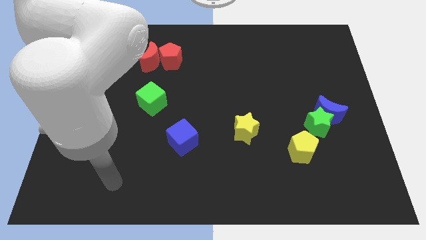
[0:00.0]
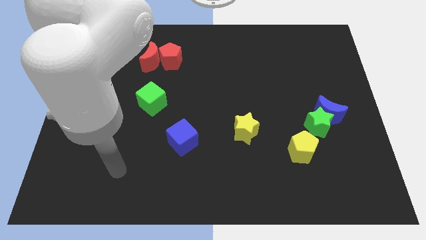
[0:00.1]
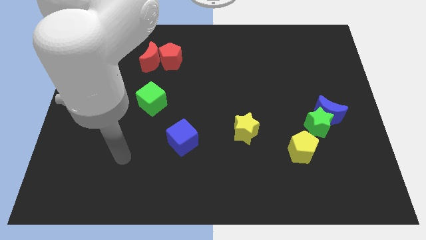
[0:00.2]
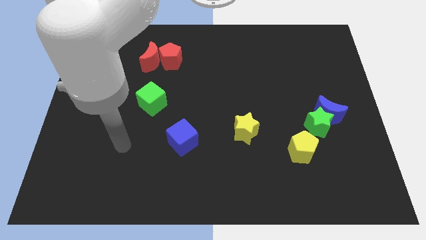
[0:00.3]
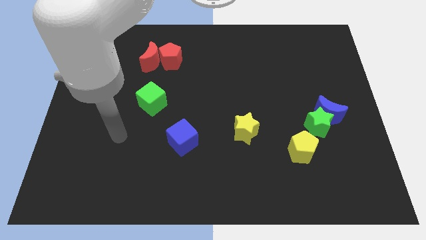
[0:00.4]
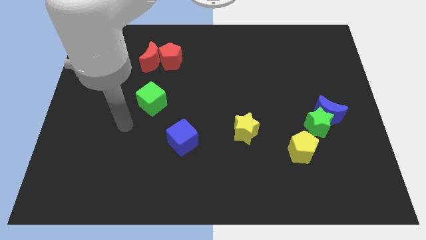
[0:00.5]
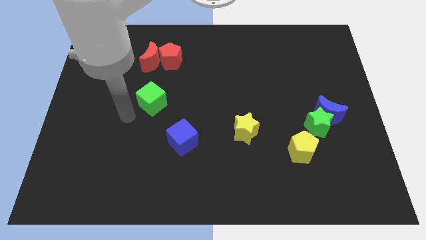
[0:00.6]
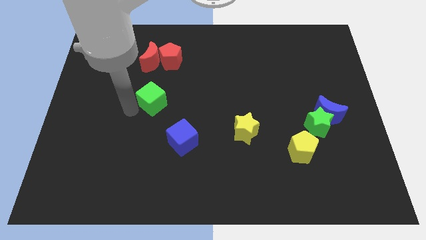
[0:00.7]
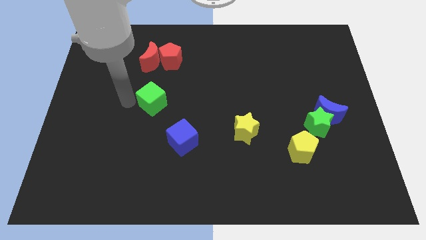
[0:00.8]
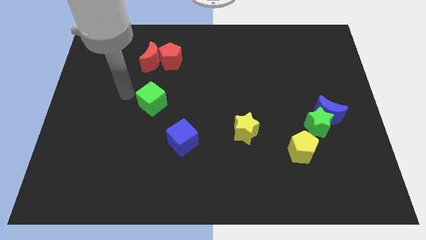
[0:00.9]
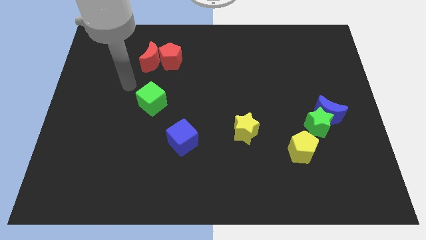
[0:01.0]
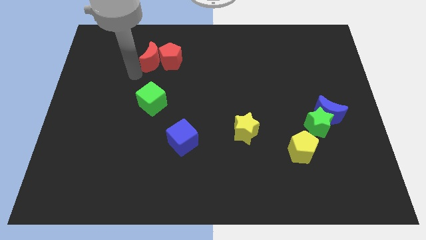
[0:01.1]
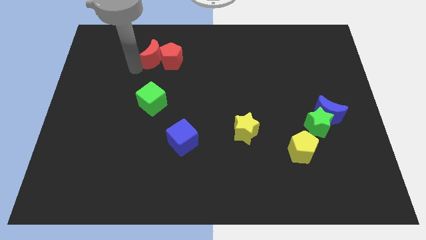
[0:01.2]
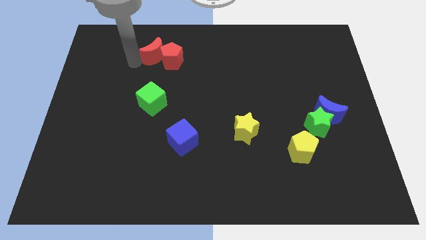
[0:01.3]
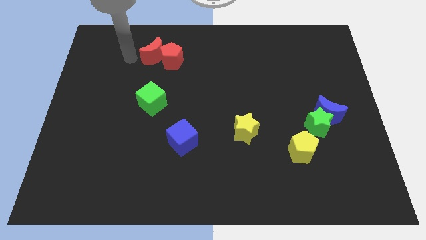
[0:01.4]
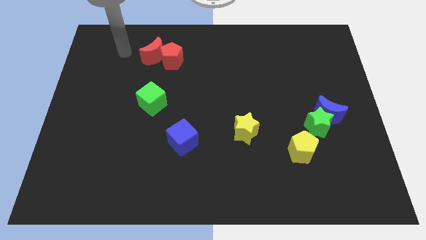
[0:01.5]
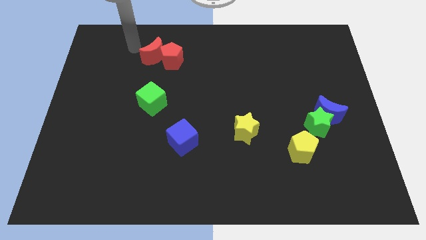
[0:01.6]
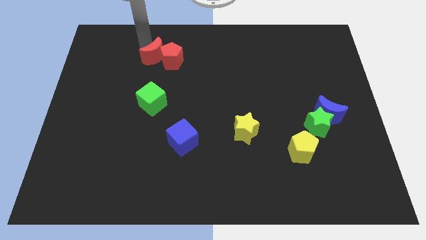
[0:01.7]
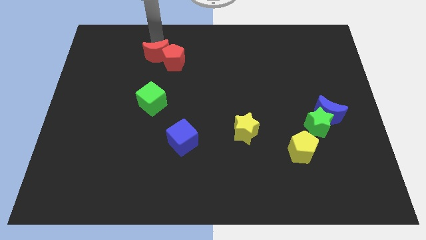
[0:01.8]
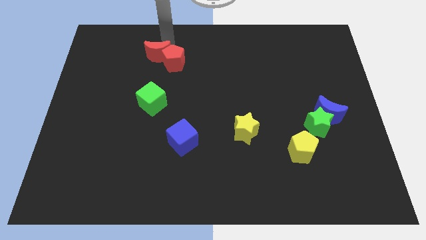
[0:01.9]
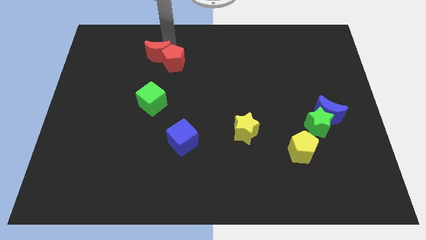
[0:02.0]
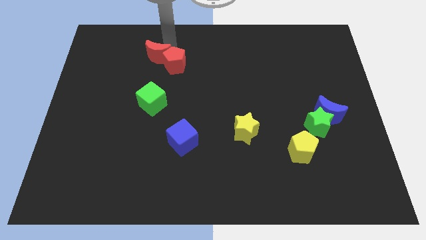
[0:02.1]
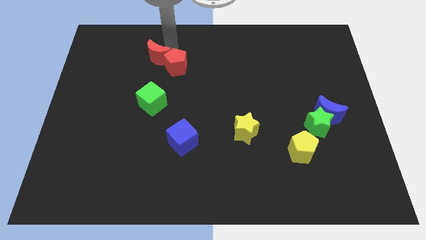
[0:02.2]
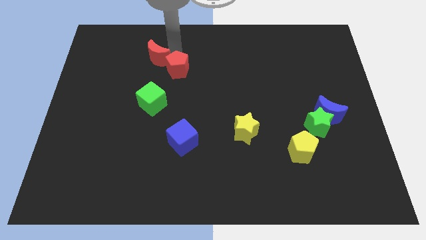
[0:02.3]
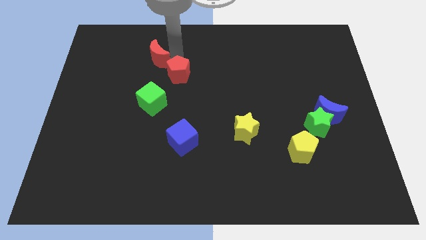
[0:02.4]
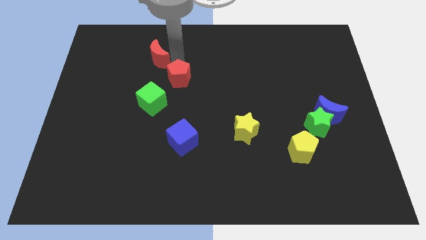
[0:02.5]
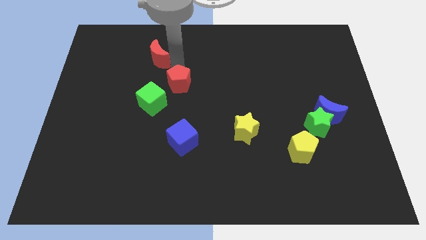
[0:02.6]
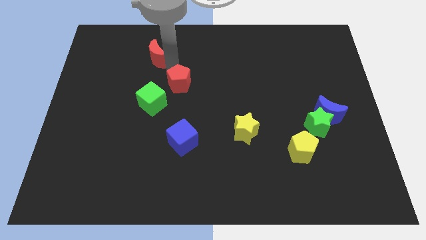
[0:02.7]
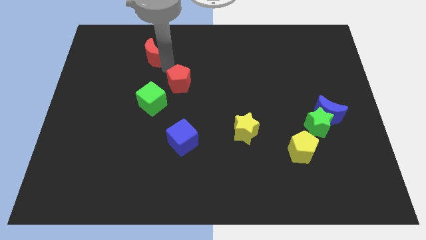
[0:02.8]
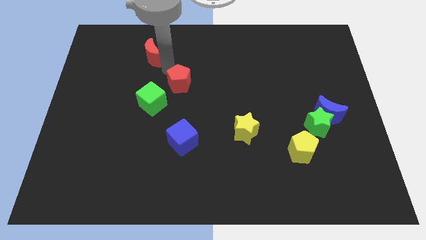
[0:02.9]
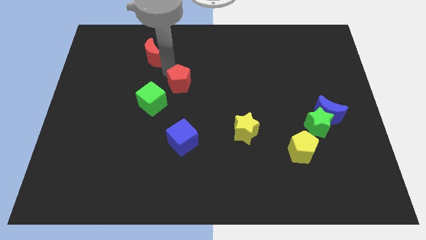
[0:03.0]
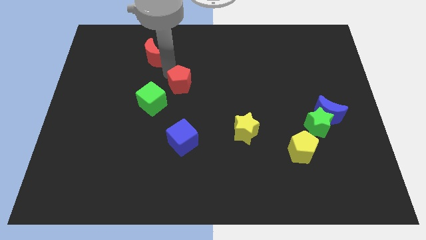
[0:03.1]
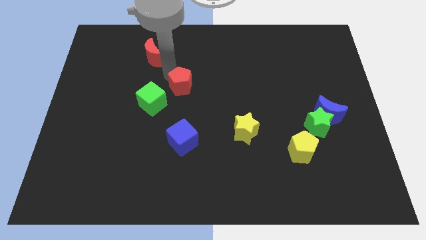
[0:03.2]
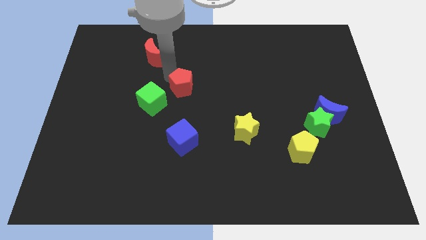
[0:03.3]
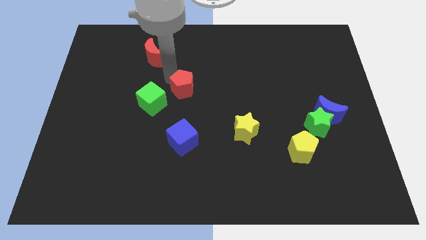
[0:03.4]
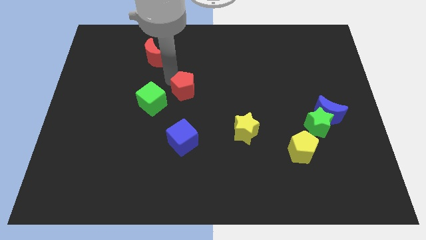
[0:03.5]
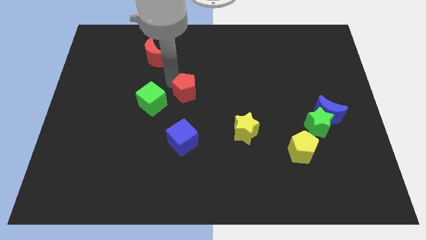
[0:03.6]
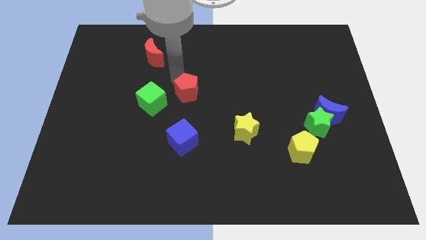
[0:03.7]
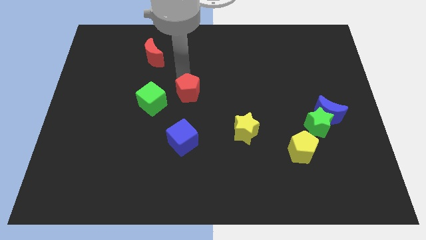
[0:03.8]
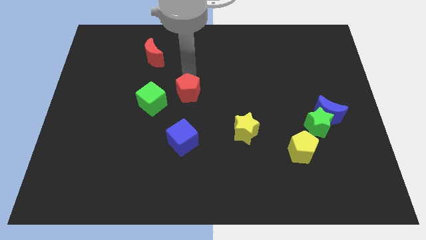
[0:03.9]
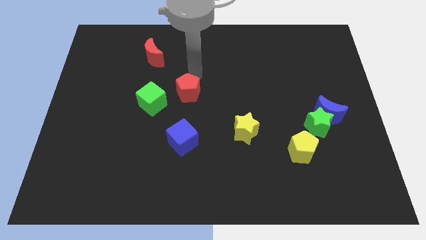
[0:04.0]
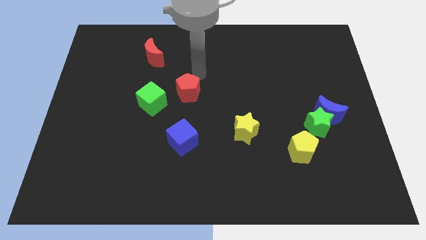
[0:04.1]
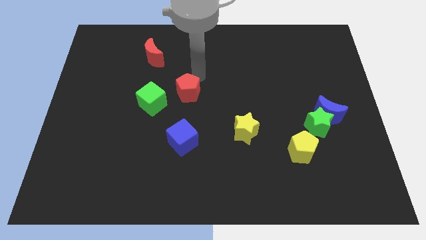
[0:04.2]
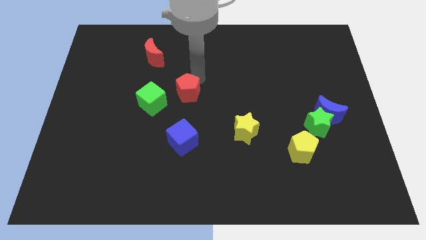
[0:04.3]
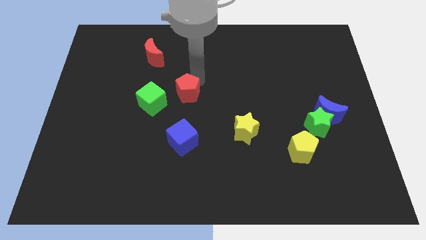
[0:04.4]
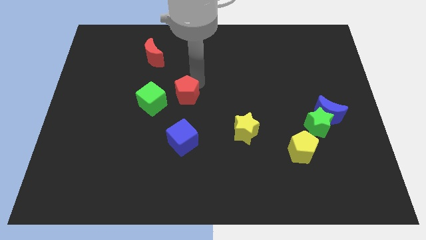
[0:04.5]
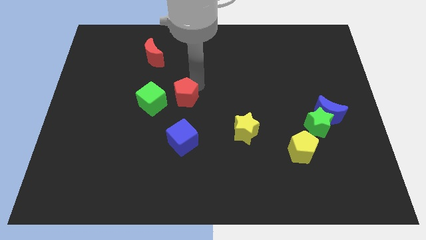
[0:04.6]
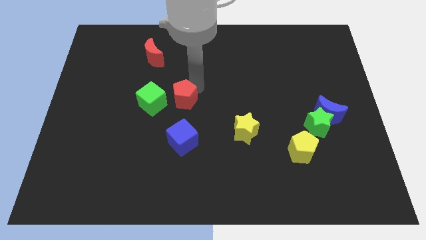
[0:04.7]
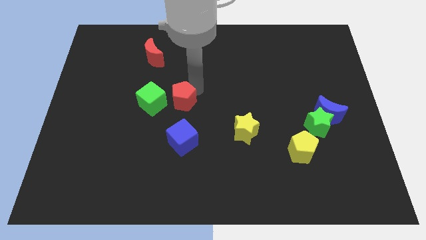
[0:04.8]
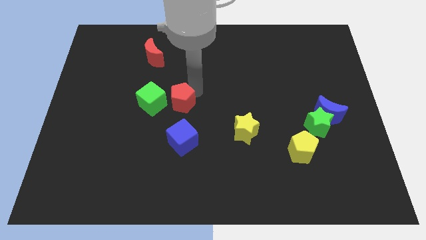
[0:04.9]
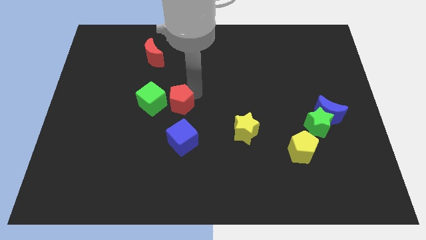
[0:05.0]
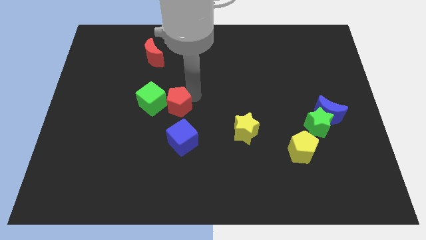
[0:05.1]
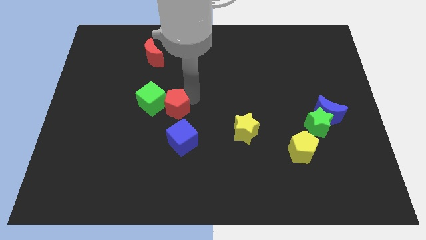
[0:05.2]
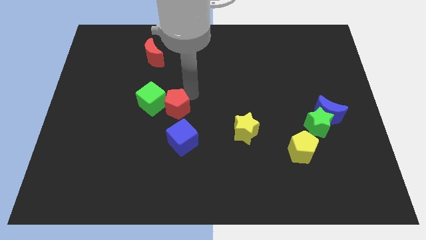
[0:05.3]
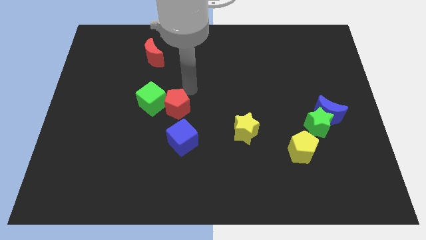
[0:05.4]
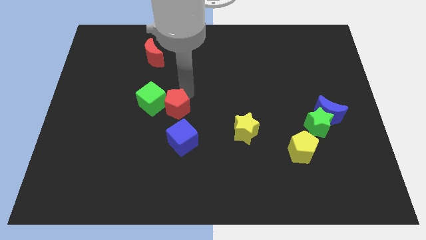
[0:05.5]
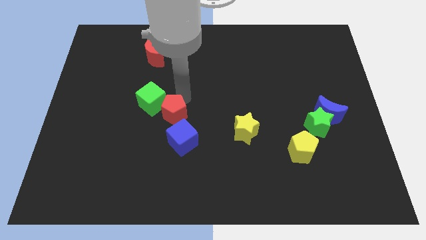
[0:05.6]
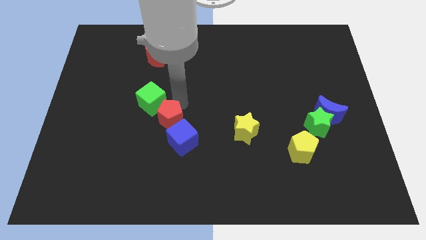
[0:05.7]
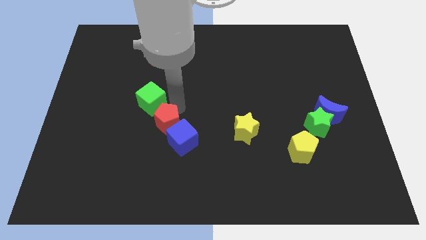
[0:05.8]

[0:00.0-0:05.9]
move the red pentagon downwards

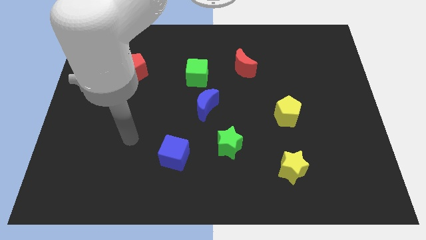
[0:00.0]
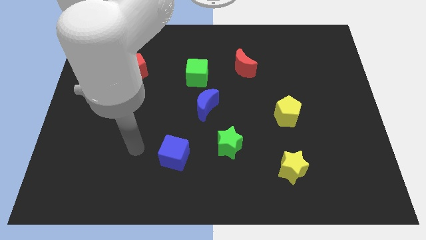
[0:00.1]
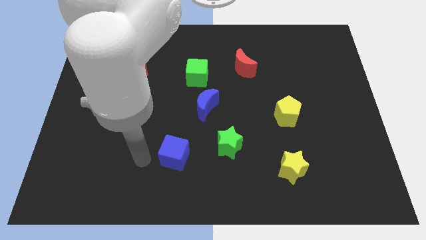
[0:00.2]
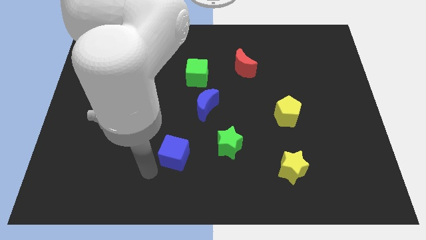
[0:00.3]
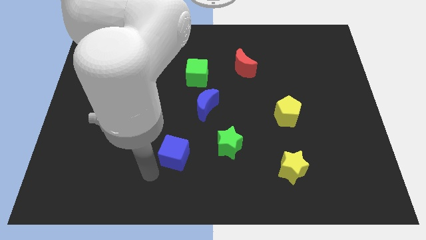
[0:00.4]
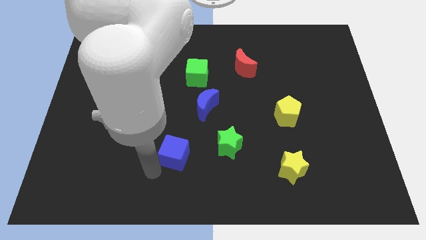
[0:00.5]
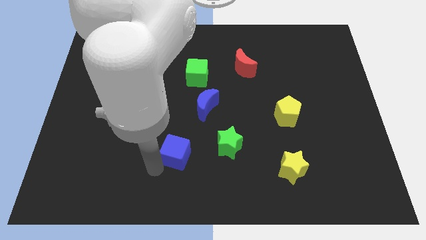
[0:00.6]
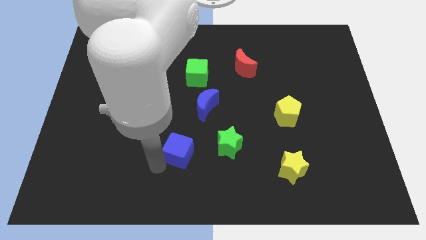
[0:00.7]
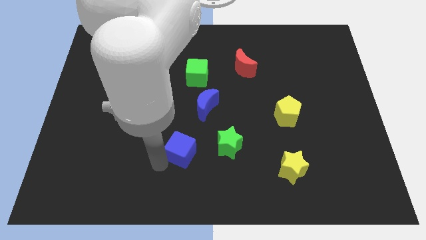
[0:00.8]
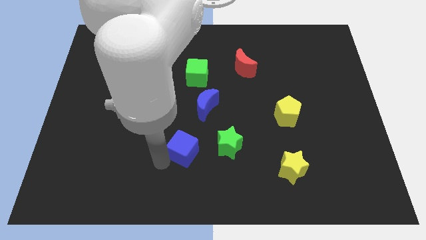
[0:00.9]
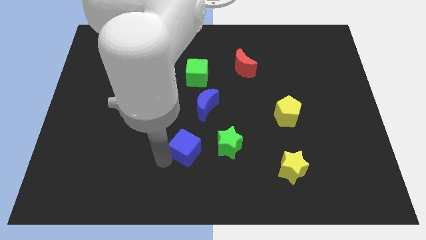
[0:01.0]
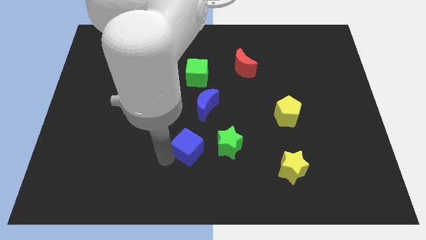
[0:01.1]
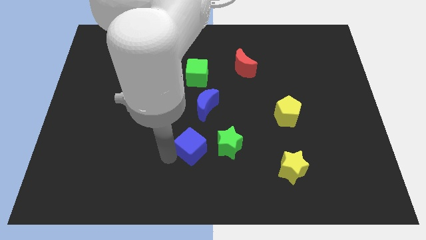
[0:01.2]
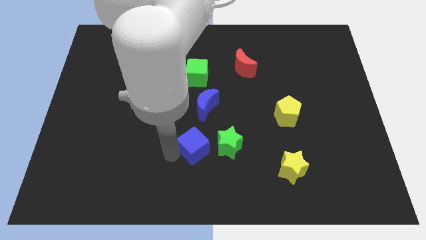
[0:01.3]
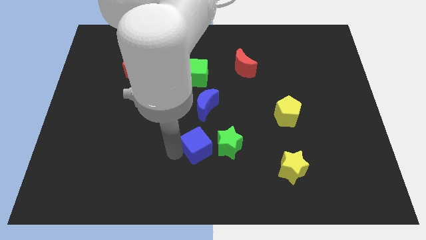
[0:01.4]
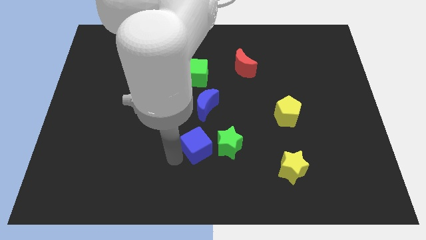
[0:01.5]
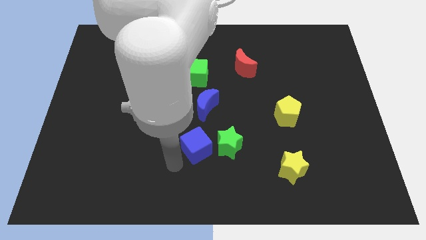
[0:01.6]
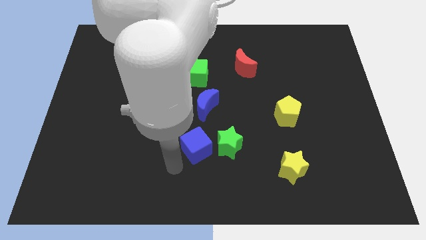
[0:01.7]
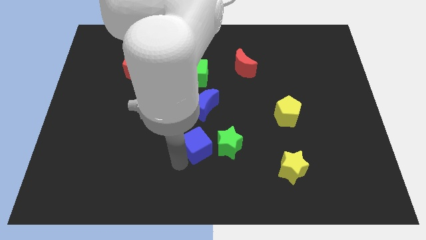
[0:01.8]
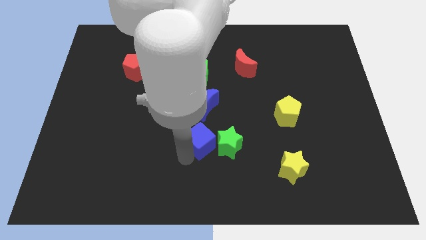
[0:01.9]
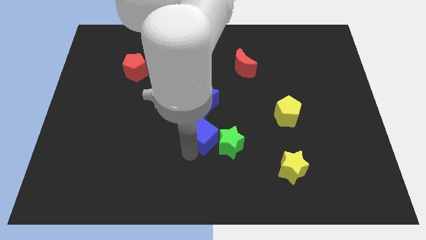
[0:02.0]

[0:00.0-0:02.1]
slide the blue cube a bit up and to the right

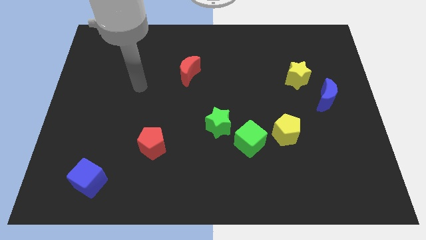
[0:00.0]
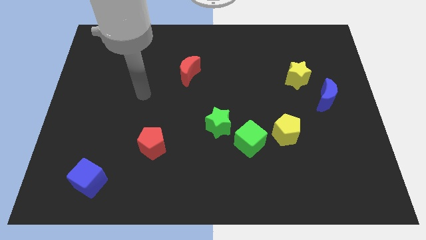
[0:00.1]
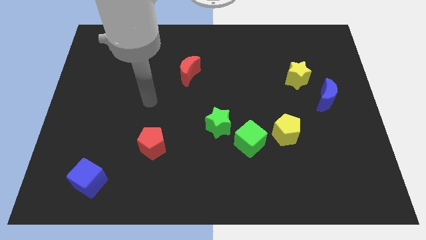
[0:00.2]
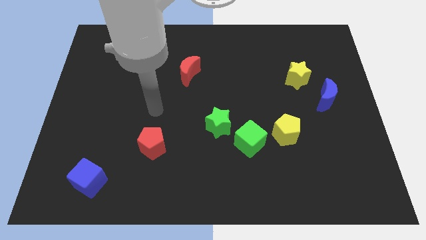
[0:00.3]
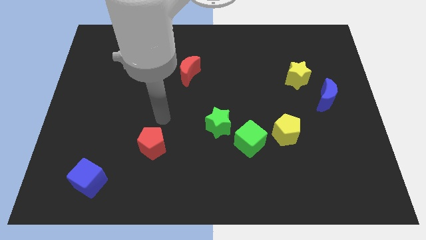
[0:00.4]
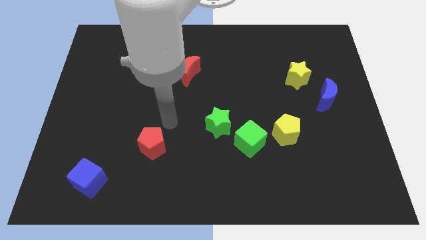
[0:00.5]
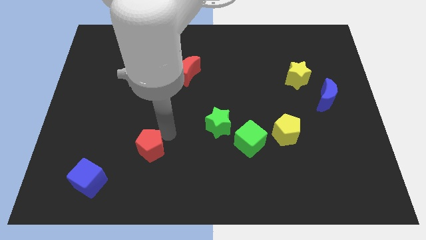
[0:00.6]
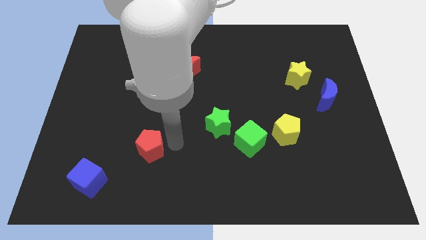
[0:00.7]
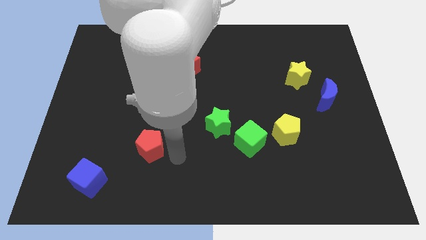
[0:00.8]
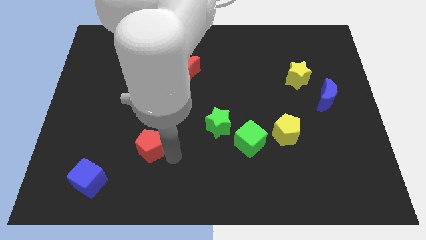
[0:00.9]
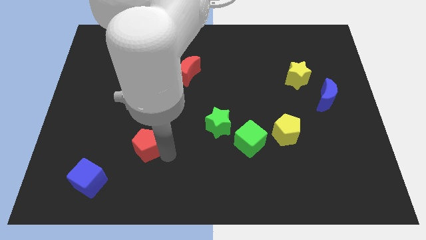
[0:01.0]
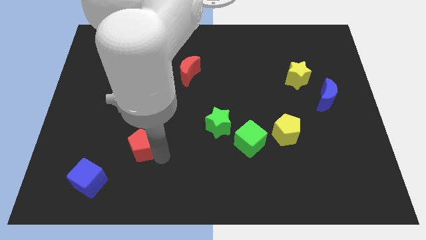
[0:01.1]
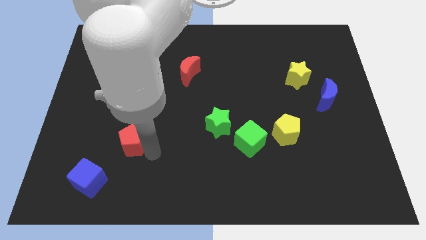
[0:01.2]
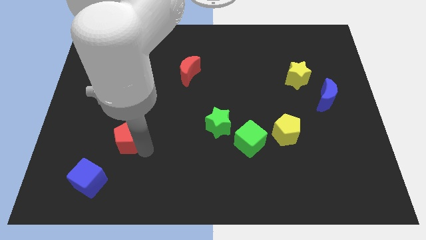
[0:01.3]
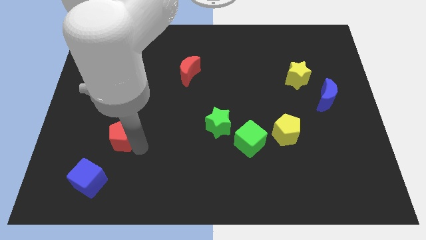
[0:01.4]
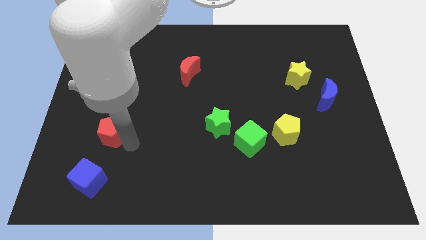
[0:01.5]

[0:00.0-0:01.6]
push the red pentagon up and to the left somewhat
